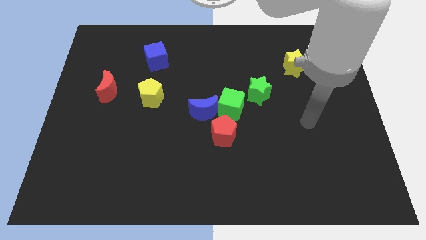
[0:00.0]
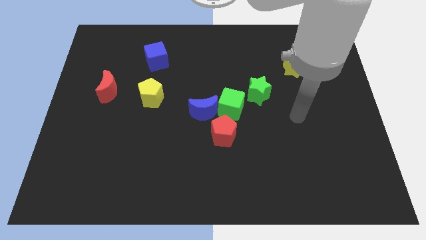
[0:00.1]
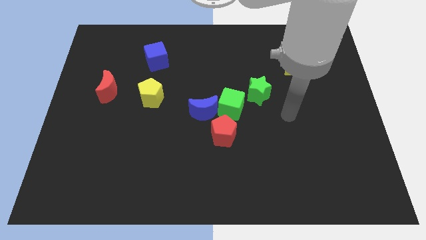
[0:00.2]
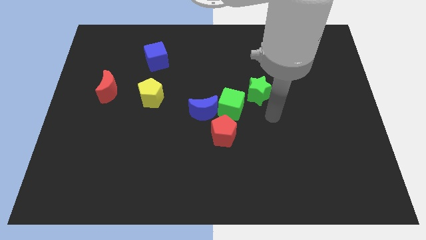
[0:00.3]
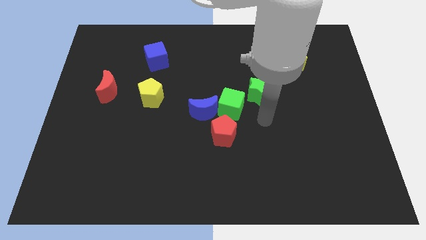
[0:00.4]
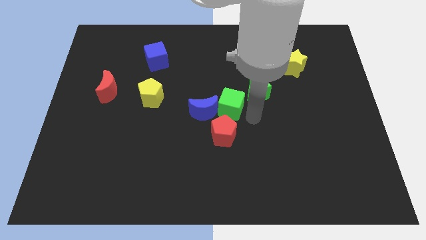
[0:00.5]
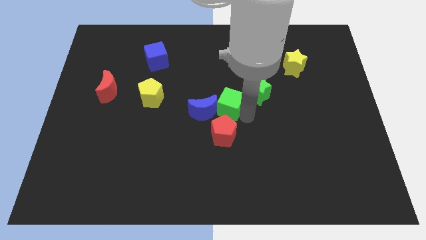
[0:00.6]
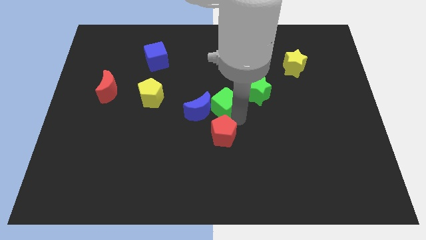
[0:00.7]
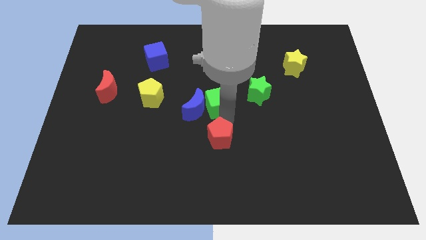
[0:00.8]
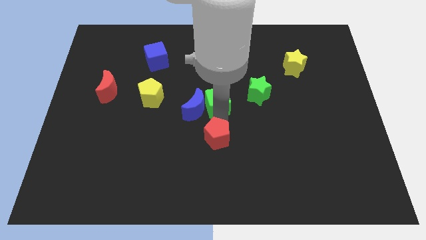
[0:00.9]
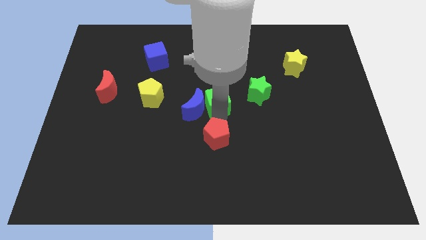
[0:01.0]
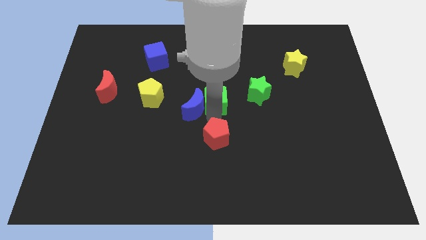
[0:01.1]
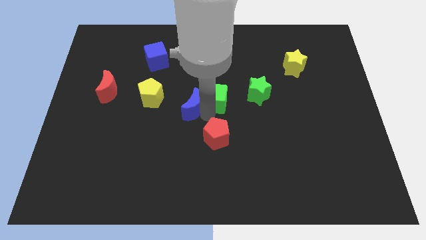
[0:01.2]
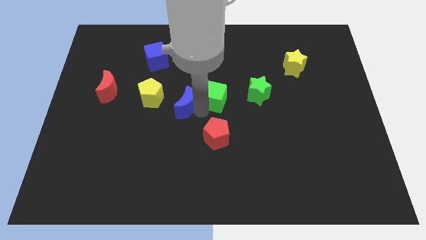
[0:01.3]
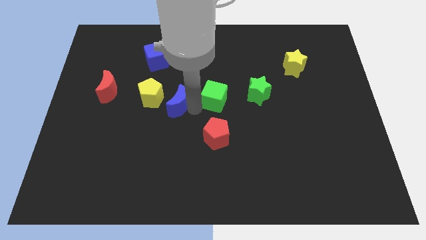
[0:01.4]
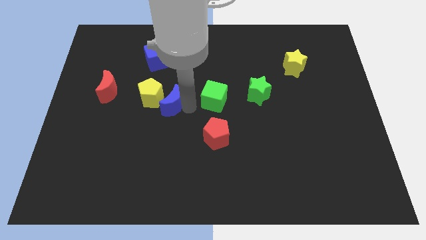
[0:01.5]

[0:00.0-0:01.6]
move the blue moon away from the green cube and red pentagon

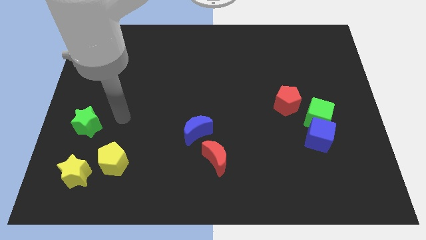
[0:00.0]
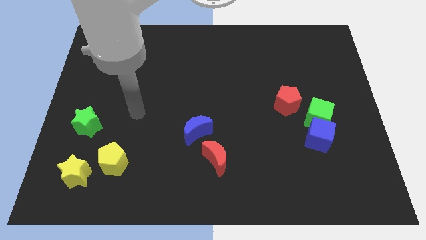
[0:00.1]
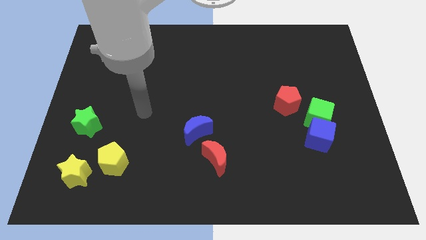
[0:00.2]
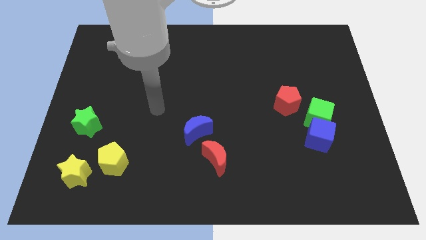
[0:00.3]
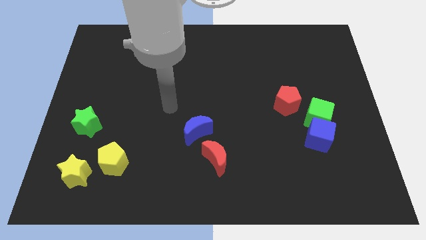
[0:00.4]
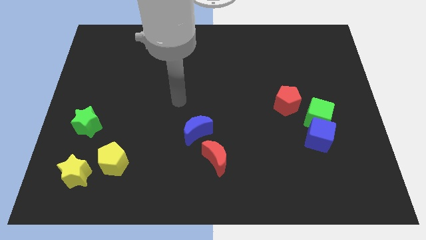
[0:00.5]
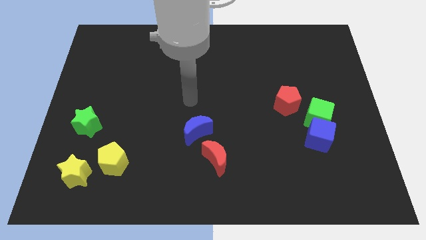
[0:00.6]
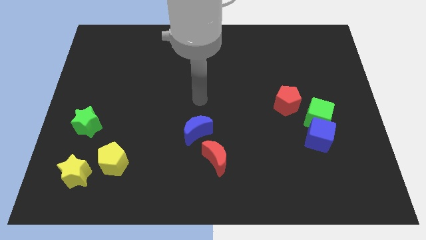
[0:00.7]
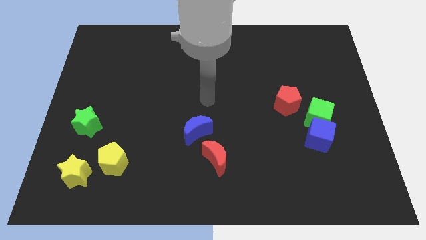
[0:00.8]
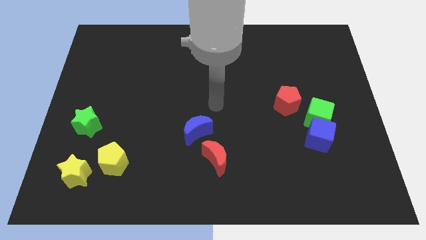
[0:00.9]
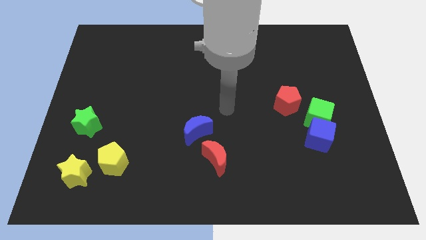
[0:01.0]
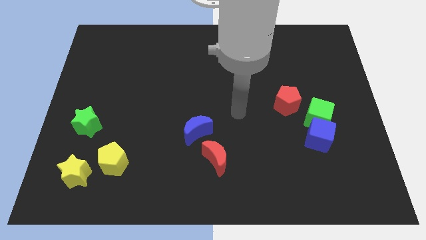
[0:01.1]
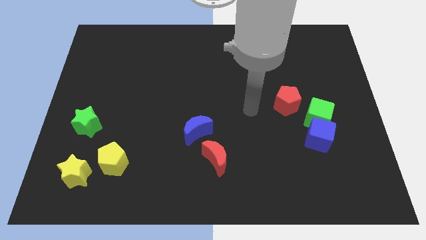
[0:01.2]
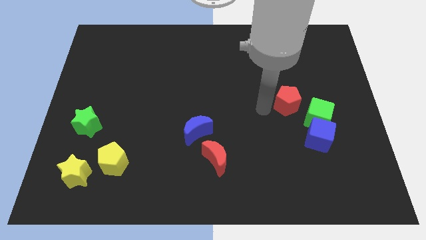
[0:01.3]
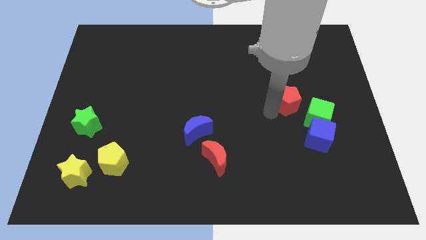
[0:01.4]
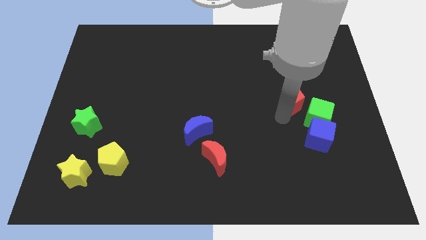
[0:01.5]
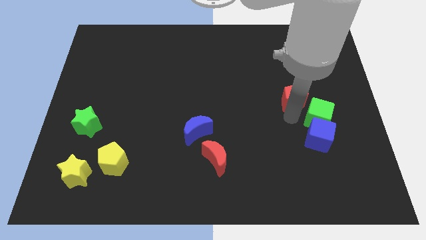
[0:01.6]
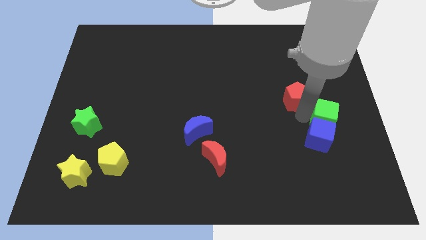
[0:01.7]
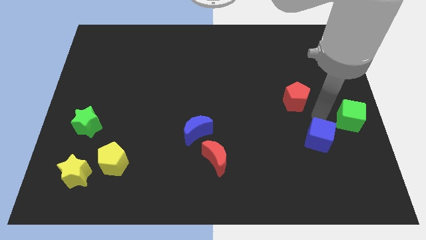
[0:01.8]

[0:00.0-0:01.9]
pull the blue cube apart from the green cube

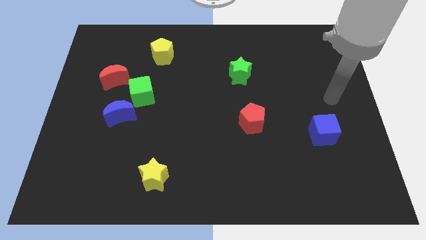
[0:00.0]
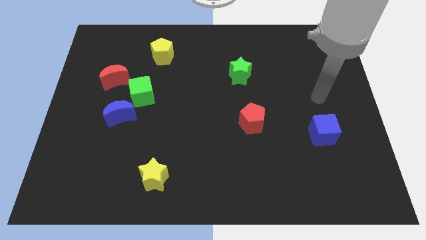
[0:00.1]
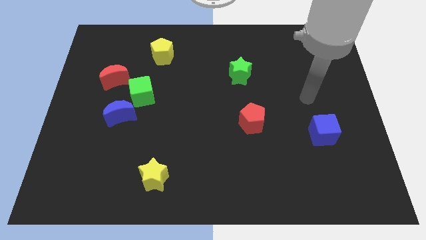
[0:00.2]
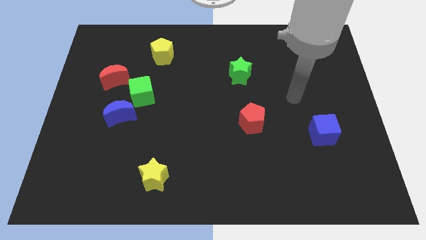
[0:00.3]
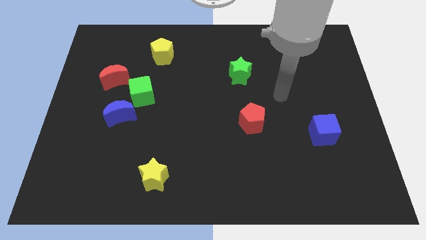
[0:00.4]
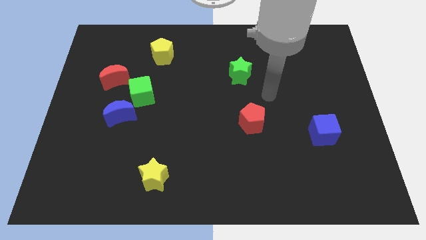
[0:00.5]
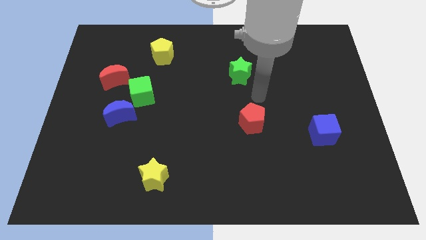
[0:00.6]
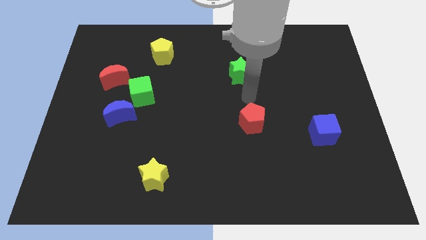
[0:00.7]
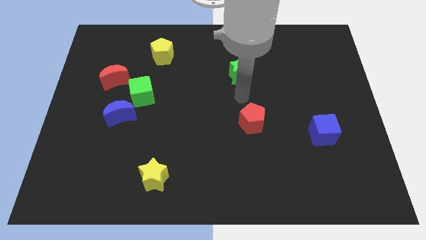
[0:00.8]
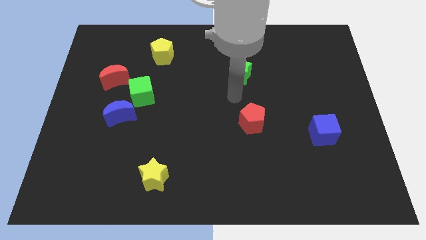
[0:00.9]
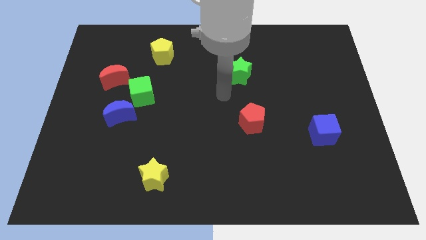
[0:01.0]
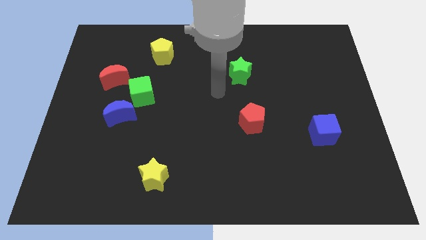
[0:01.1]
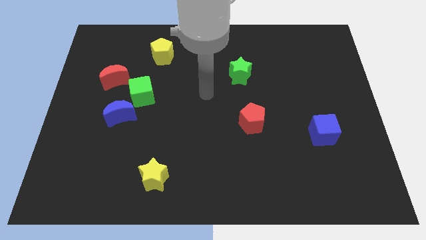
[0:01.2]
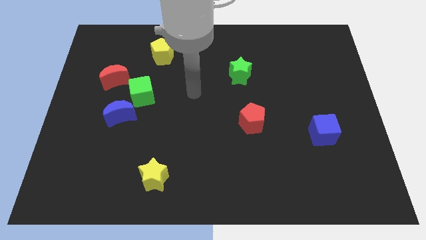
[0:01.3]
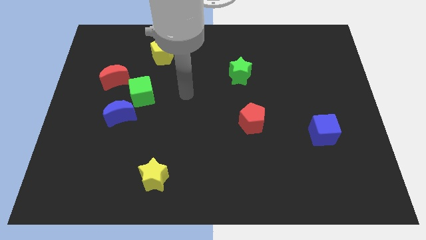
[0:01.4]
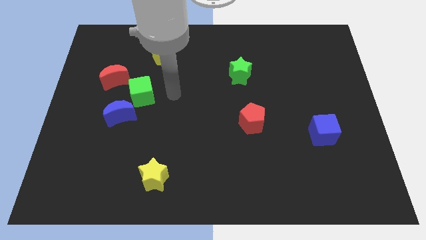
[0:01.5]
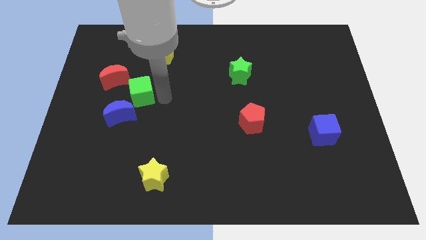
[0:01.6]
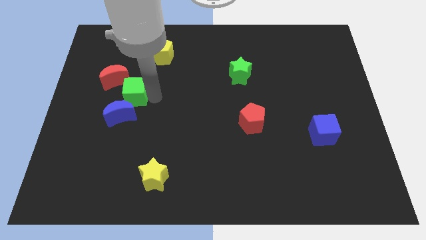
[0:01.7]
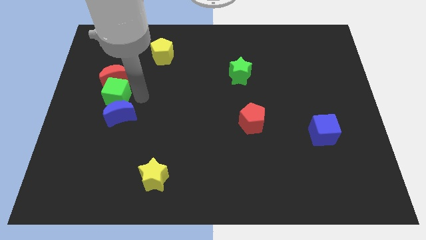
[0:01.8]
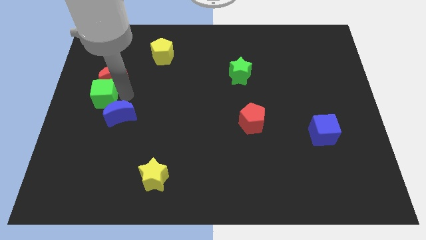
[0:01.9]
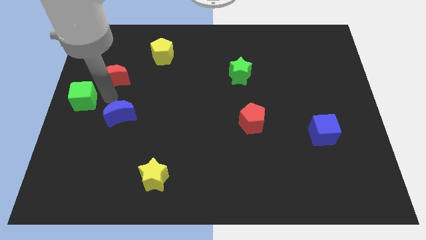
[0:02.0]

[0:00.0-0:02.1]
separate the blue moon from the green cube

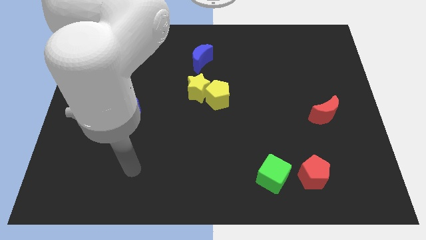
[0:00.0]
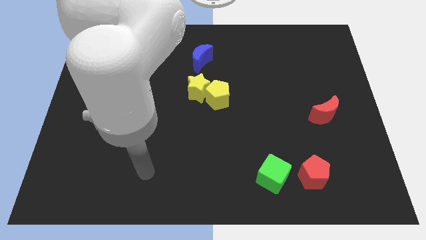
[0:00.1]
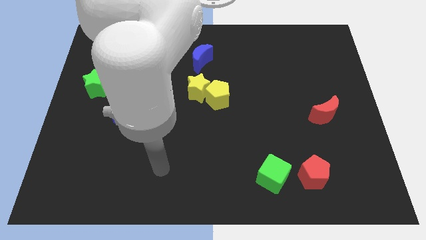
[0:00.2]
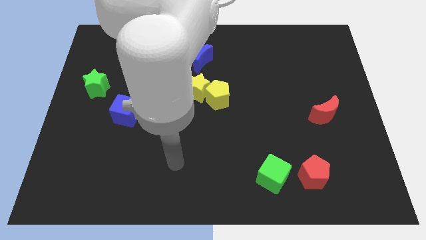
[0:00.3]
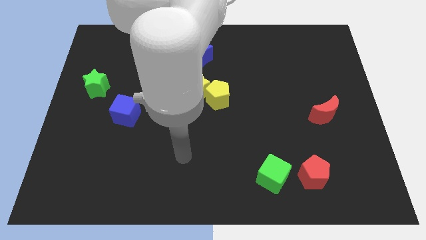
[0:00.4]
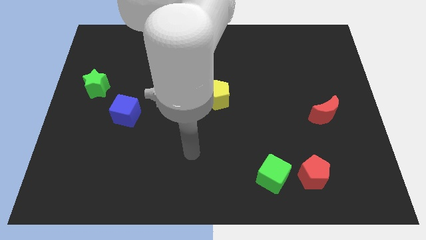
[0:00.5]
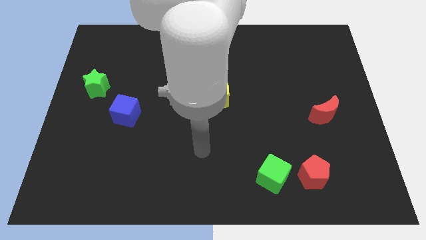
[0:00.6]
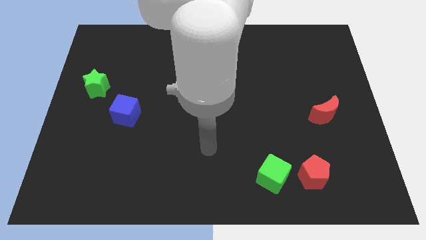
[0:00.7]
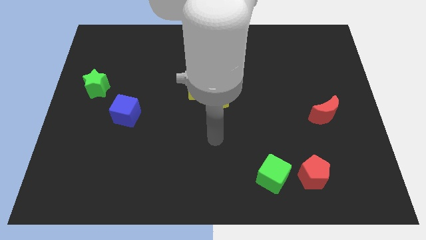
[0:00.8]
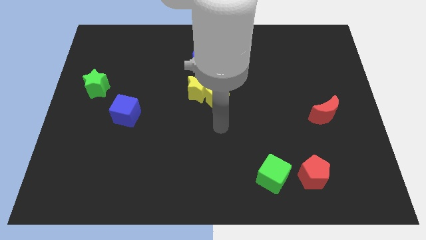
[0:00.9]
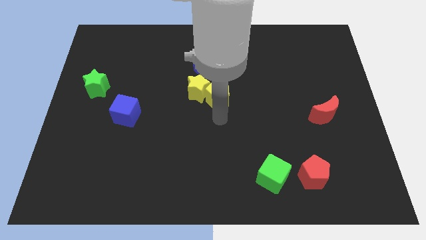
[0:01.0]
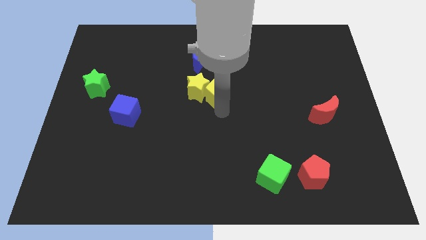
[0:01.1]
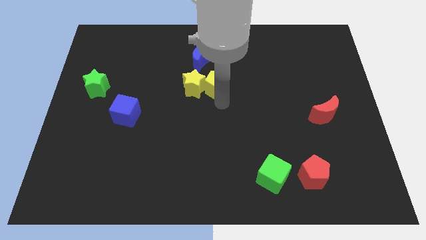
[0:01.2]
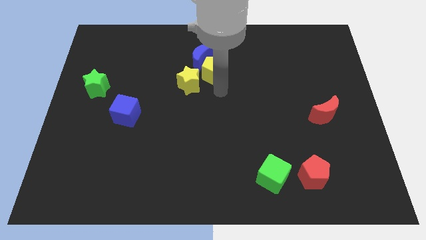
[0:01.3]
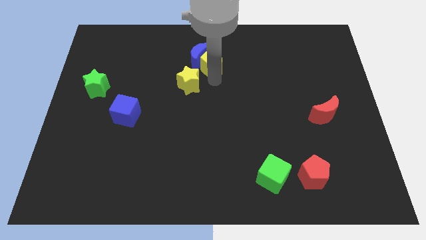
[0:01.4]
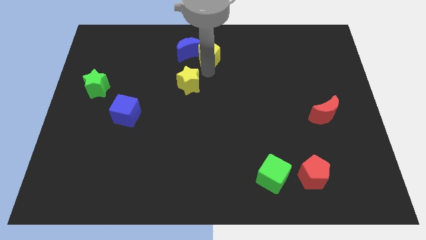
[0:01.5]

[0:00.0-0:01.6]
move the yellow star away from the yellow pentagon

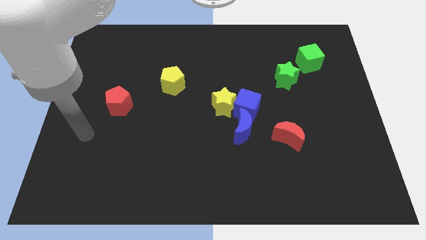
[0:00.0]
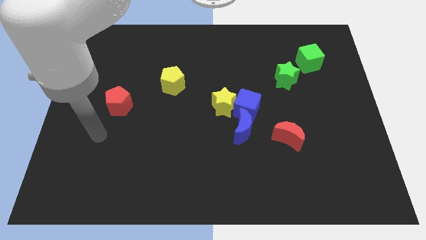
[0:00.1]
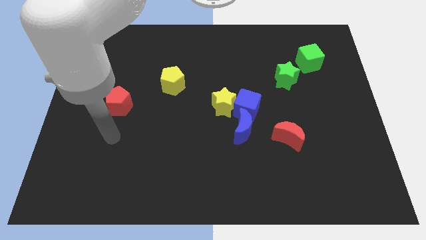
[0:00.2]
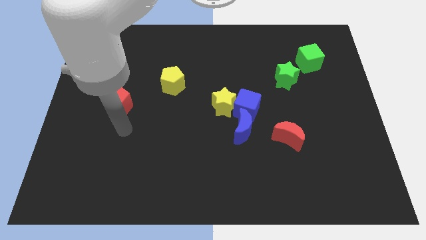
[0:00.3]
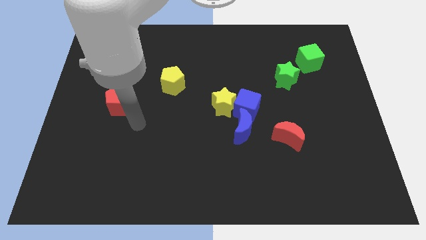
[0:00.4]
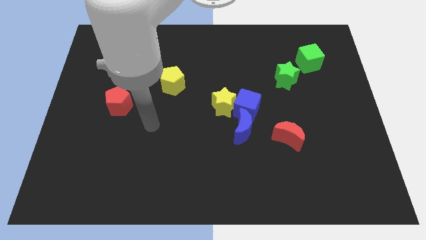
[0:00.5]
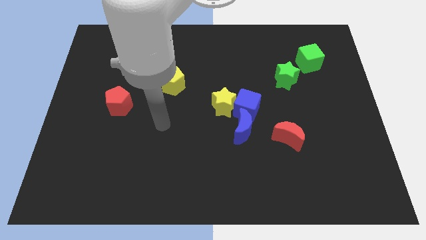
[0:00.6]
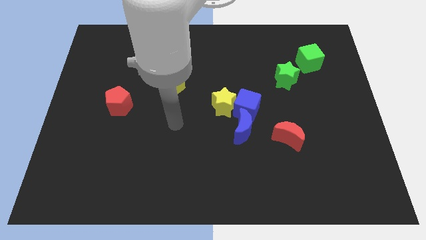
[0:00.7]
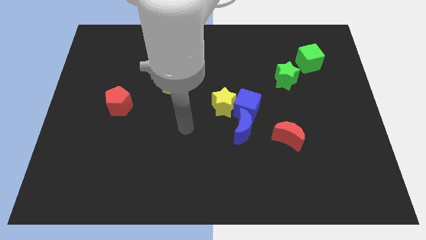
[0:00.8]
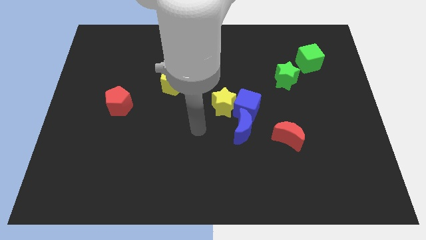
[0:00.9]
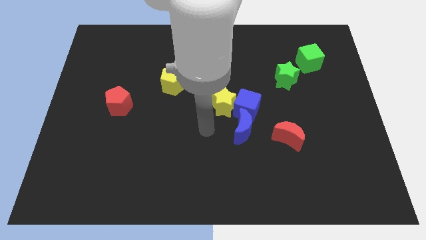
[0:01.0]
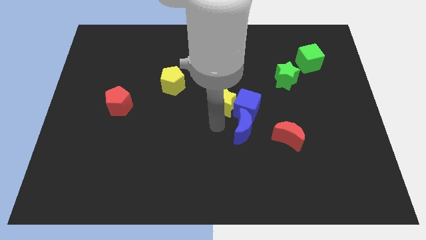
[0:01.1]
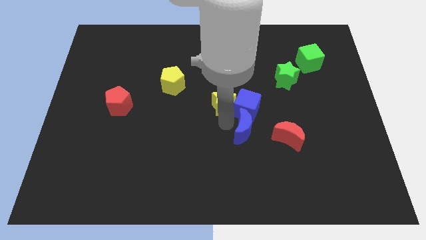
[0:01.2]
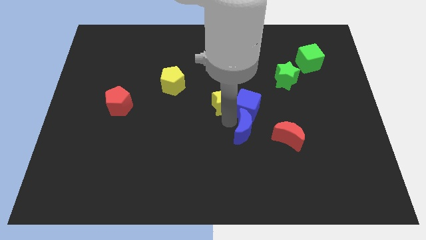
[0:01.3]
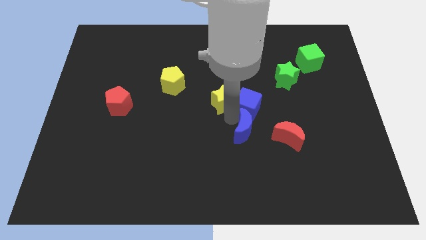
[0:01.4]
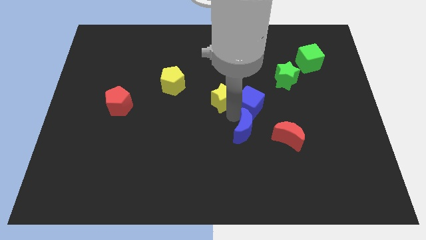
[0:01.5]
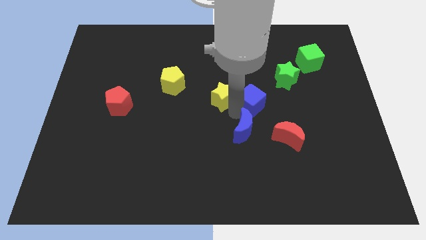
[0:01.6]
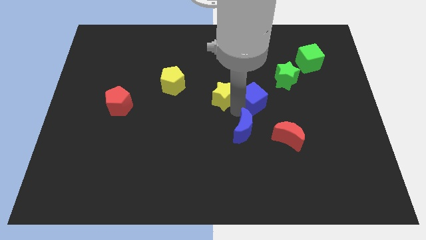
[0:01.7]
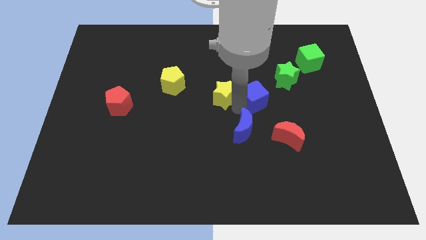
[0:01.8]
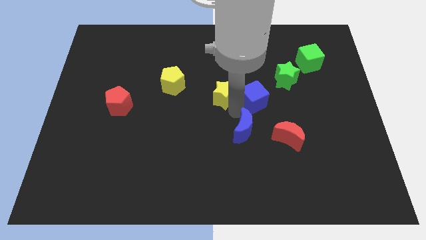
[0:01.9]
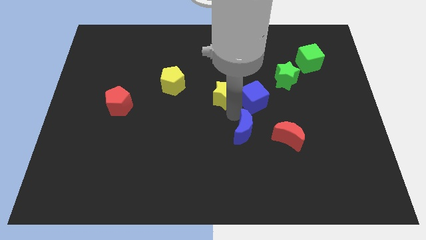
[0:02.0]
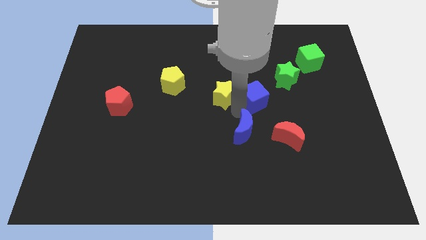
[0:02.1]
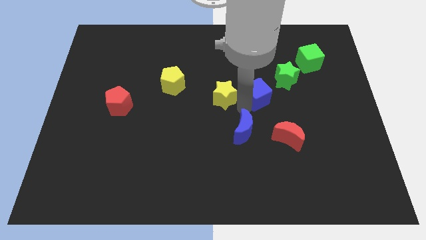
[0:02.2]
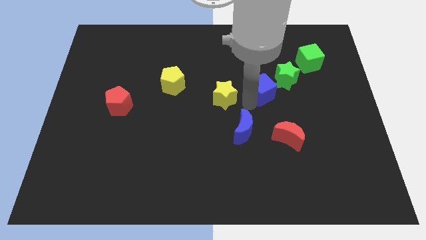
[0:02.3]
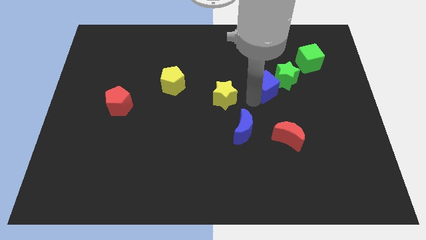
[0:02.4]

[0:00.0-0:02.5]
move the blue cube away from the yellow star and blue moon
